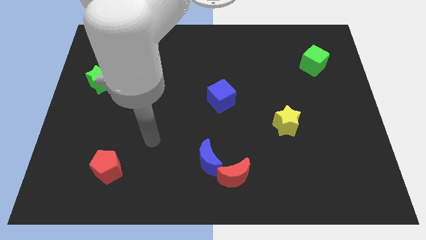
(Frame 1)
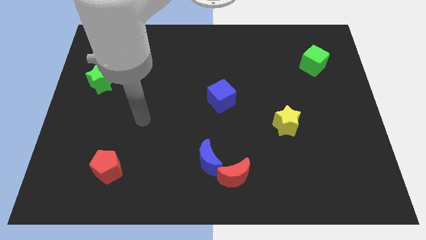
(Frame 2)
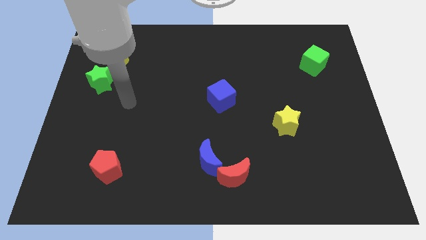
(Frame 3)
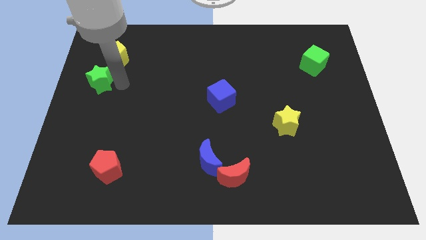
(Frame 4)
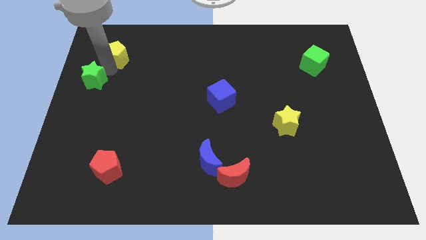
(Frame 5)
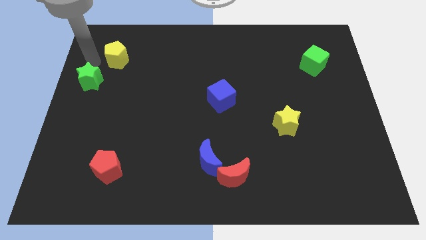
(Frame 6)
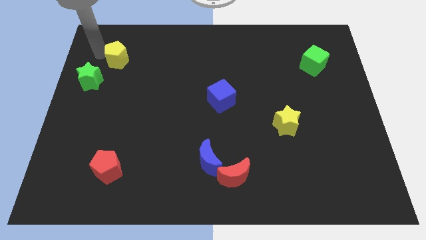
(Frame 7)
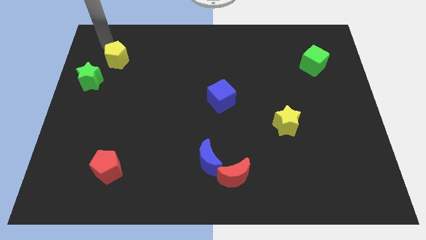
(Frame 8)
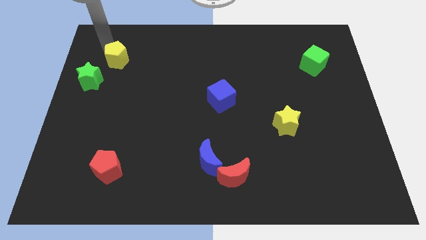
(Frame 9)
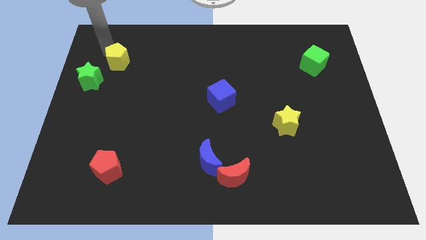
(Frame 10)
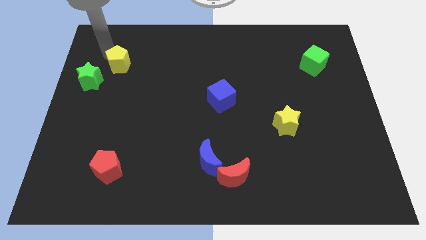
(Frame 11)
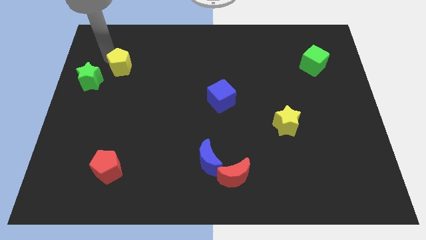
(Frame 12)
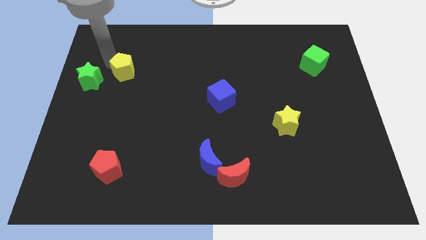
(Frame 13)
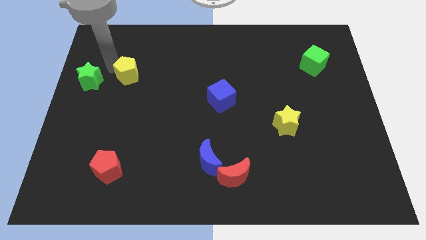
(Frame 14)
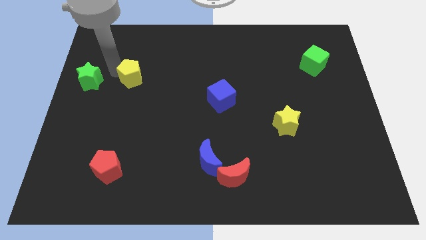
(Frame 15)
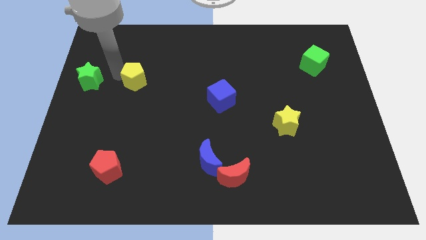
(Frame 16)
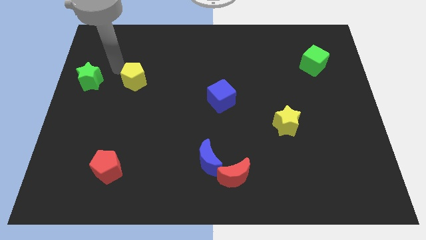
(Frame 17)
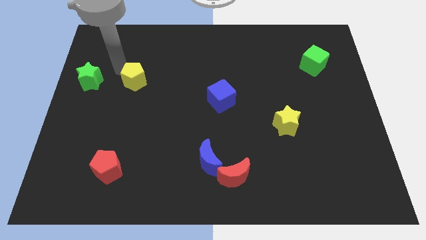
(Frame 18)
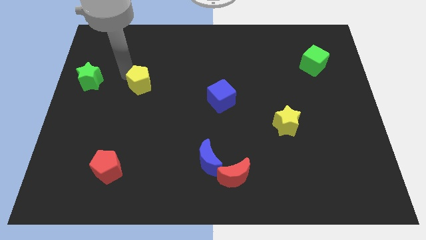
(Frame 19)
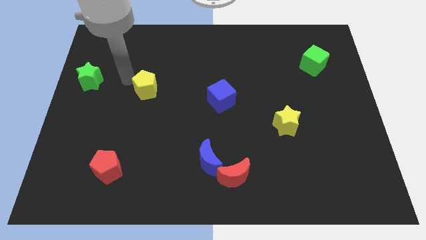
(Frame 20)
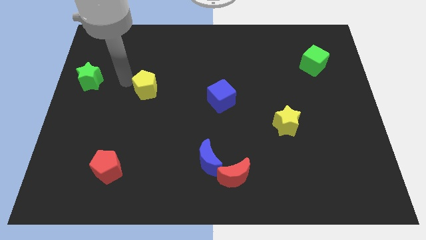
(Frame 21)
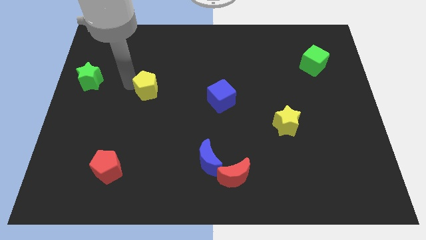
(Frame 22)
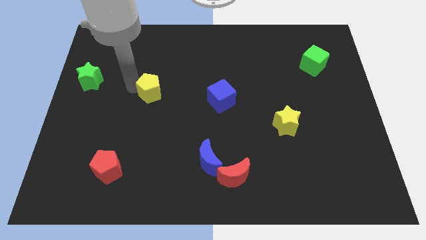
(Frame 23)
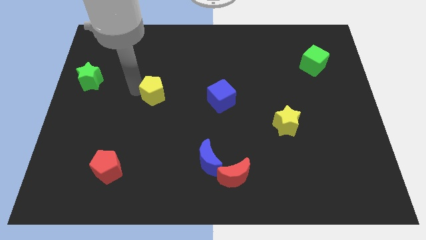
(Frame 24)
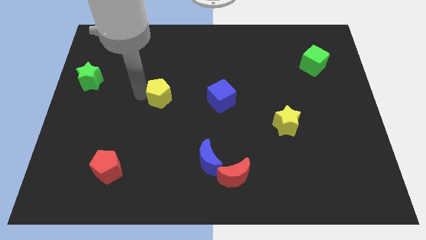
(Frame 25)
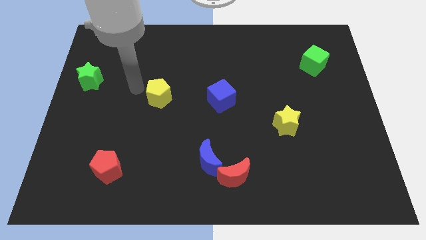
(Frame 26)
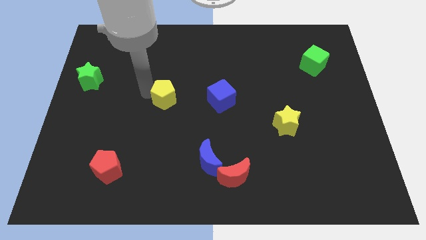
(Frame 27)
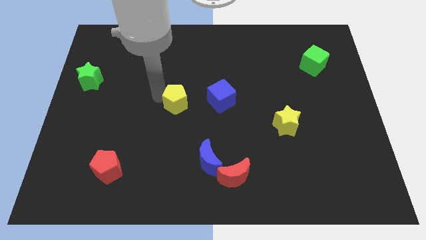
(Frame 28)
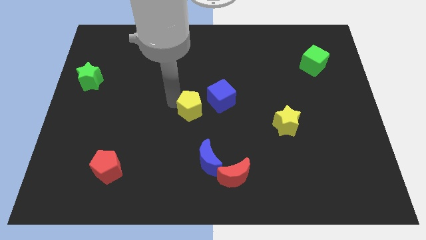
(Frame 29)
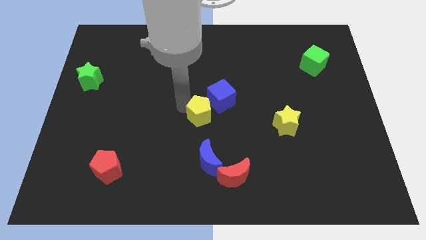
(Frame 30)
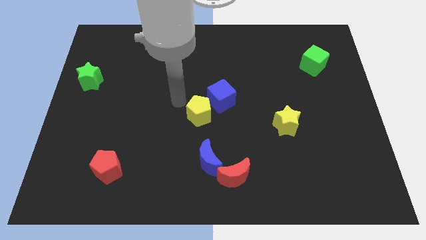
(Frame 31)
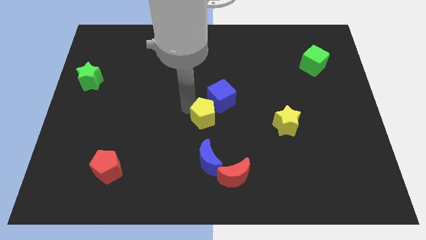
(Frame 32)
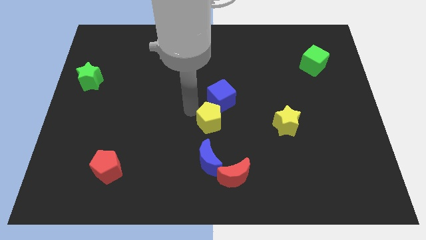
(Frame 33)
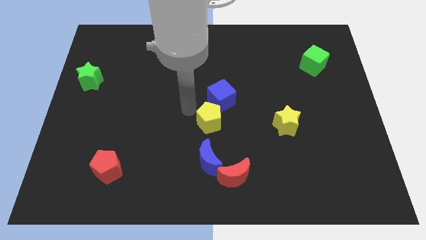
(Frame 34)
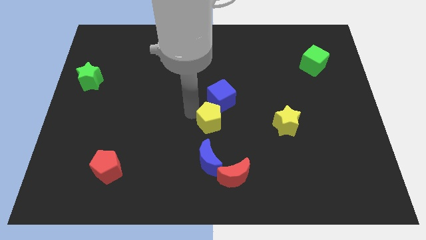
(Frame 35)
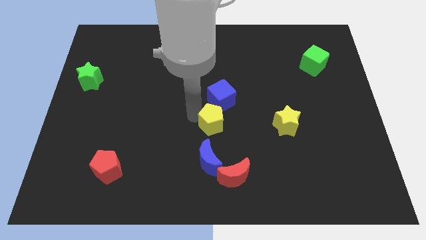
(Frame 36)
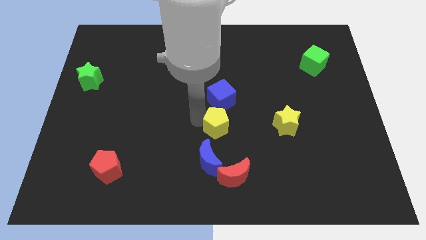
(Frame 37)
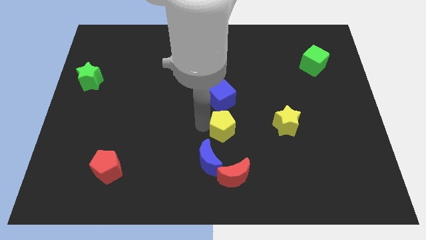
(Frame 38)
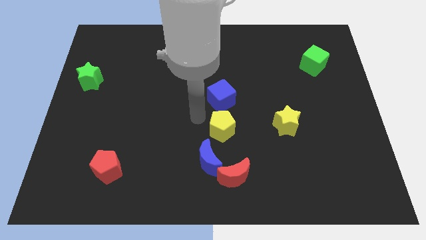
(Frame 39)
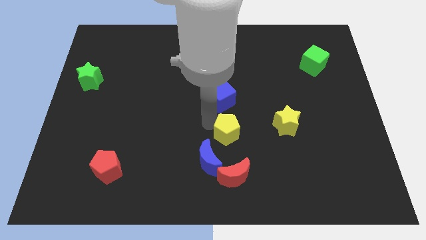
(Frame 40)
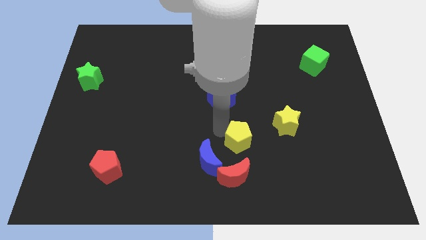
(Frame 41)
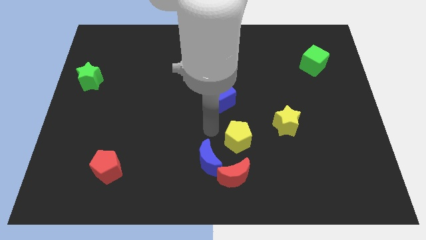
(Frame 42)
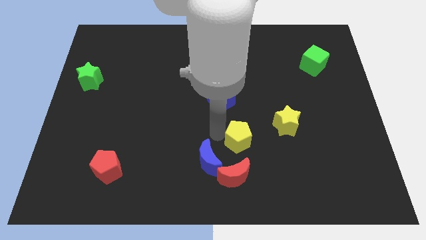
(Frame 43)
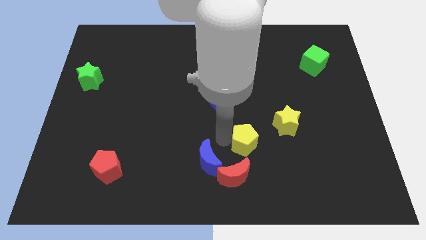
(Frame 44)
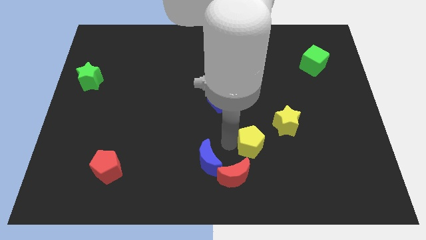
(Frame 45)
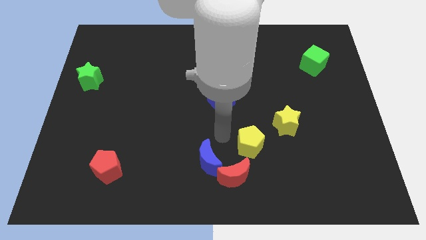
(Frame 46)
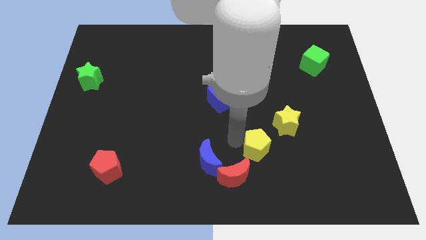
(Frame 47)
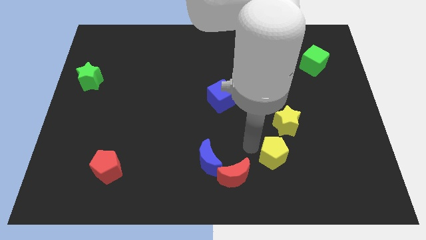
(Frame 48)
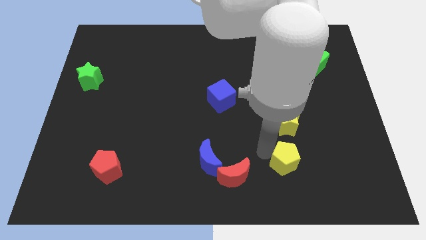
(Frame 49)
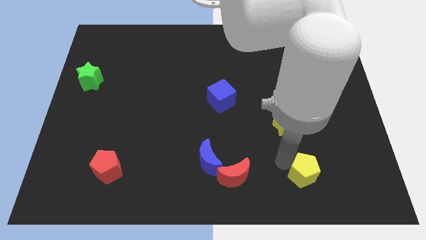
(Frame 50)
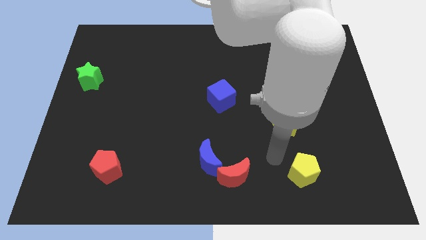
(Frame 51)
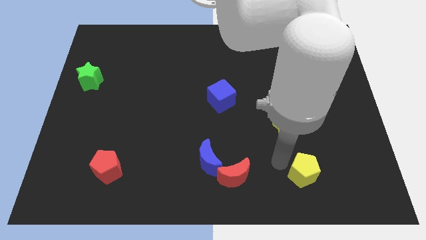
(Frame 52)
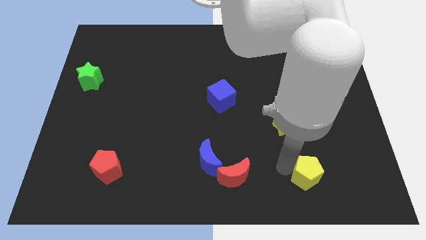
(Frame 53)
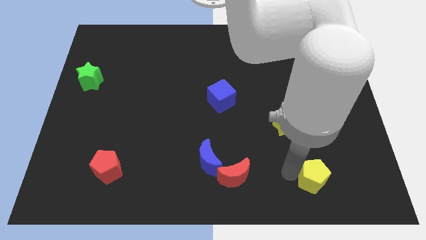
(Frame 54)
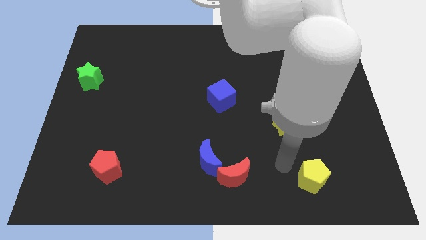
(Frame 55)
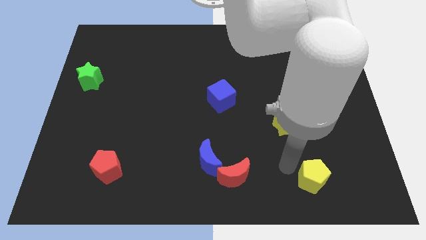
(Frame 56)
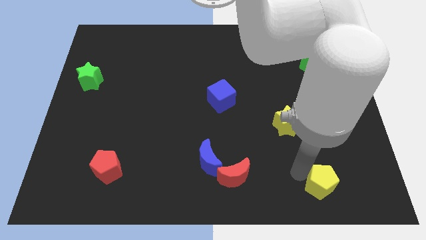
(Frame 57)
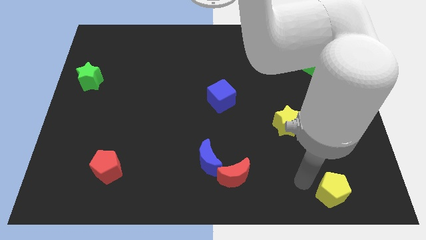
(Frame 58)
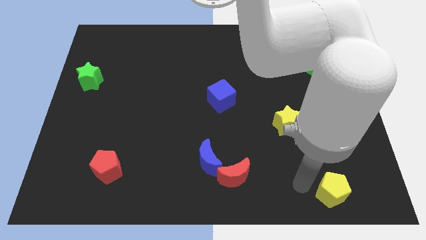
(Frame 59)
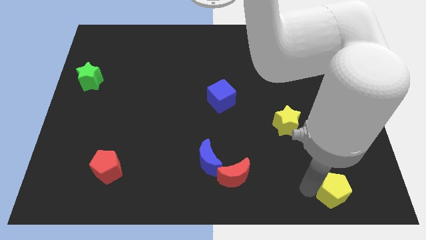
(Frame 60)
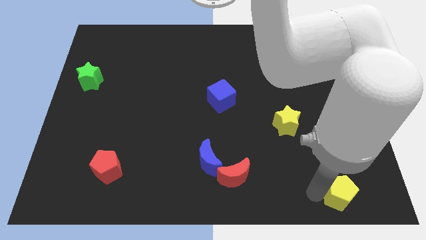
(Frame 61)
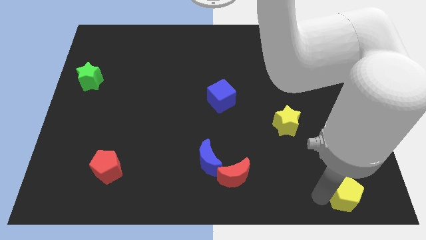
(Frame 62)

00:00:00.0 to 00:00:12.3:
put the yellow pentagon to the bottom right of the board
